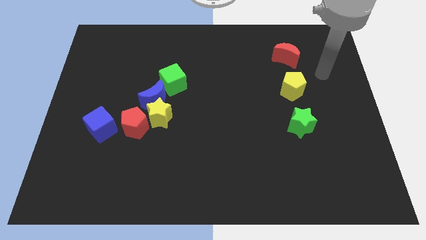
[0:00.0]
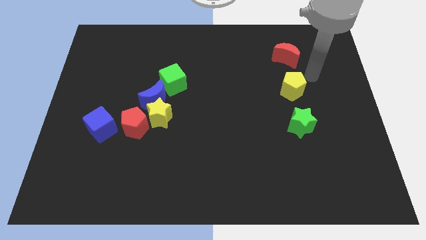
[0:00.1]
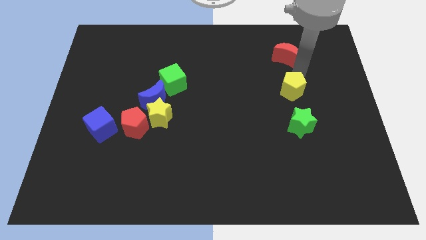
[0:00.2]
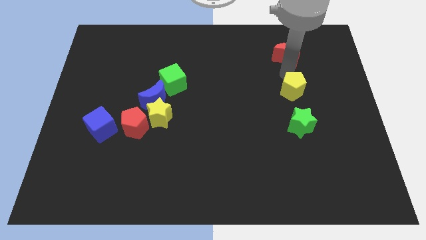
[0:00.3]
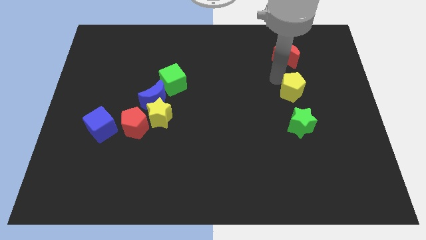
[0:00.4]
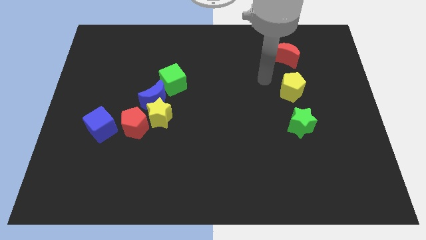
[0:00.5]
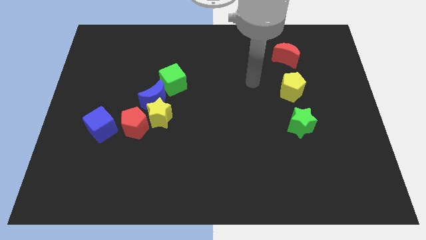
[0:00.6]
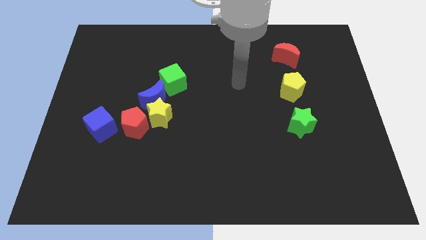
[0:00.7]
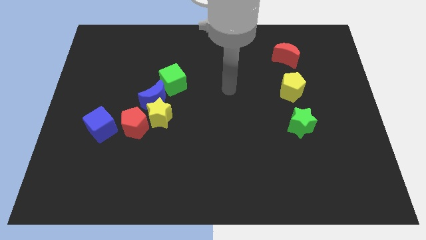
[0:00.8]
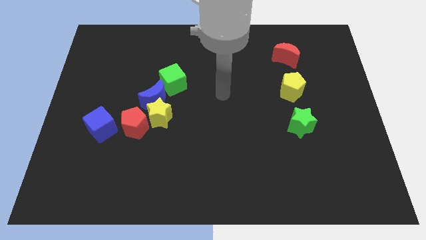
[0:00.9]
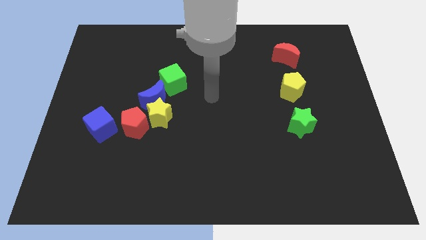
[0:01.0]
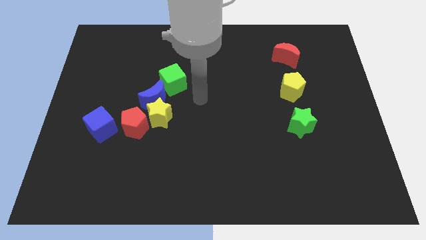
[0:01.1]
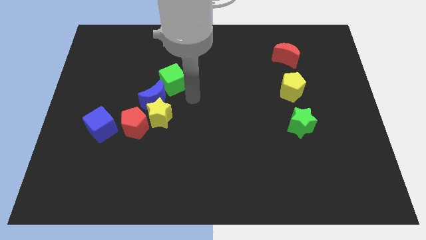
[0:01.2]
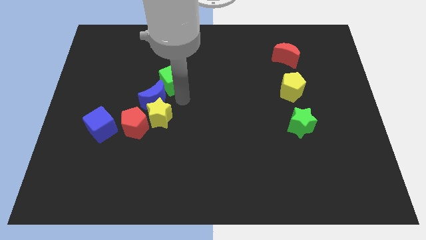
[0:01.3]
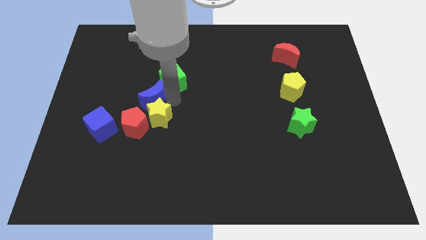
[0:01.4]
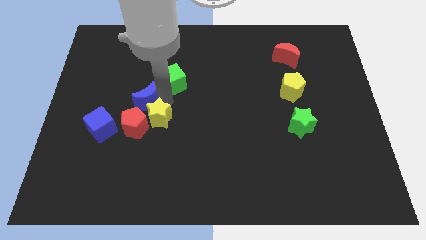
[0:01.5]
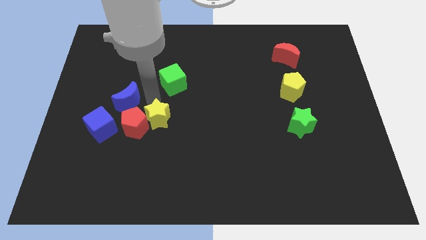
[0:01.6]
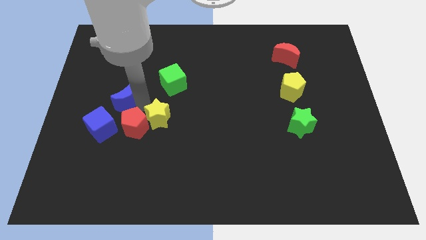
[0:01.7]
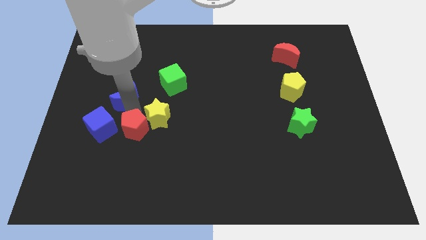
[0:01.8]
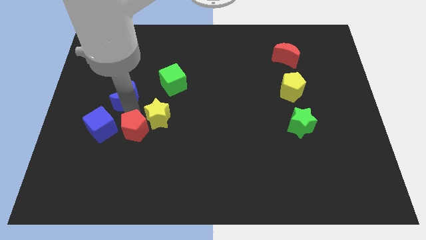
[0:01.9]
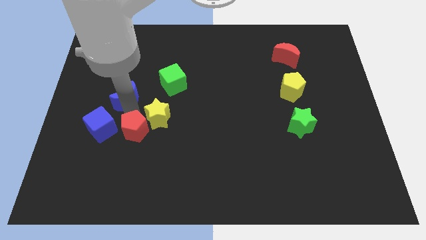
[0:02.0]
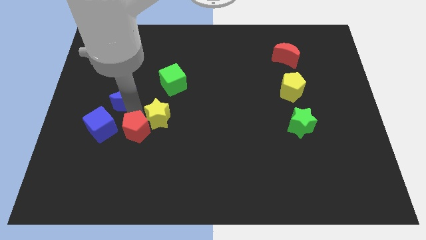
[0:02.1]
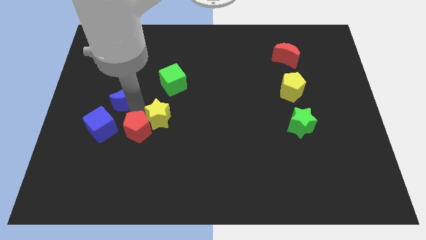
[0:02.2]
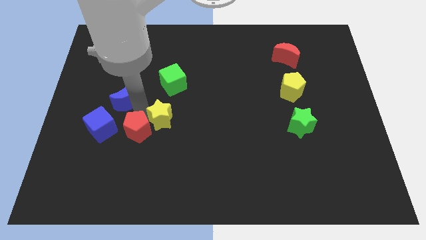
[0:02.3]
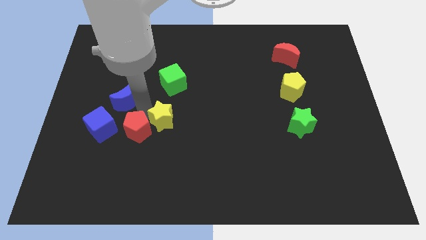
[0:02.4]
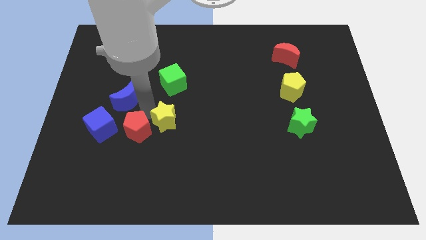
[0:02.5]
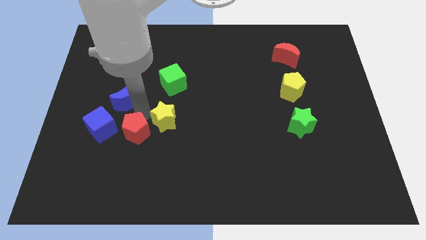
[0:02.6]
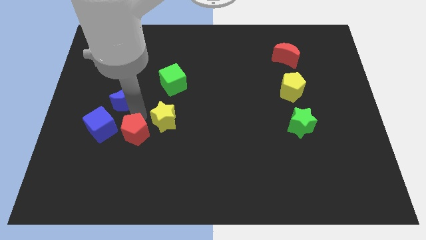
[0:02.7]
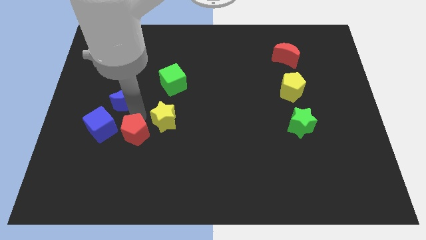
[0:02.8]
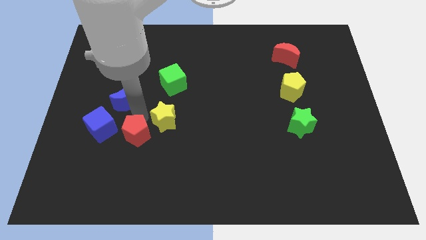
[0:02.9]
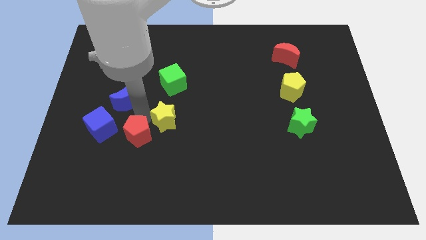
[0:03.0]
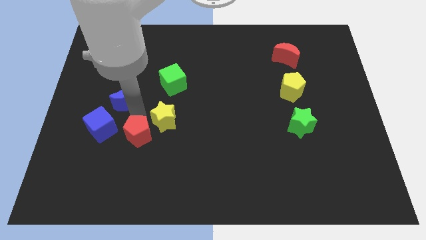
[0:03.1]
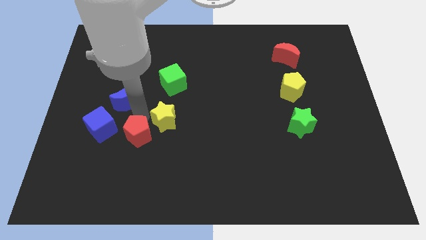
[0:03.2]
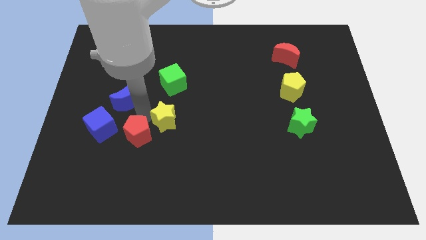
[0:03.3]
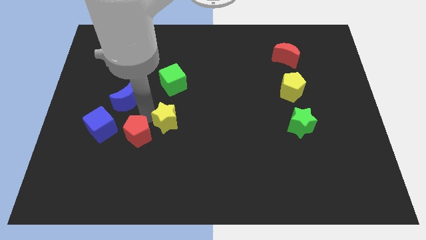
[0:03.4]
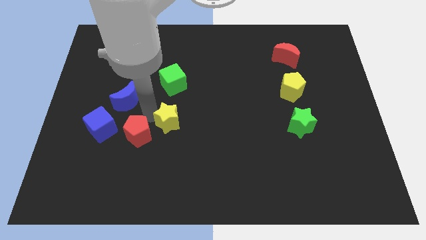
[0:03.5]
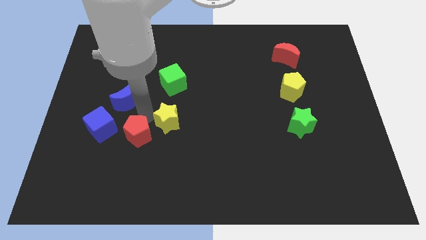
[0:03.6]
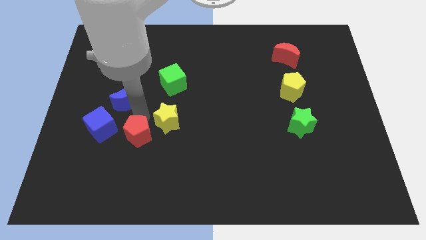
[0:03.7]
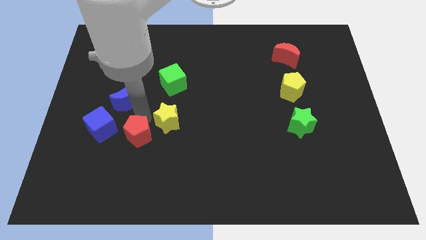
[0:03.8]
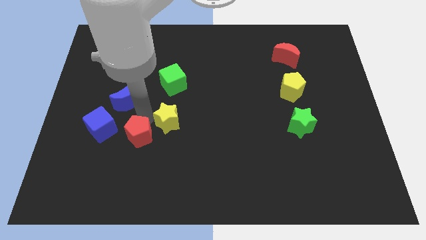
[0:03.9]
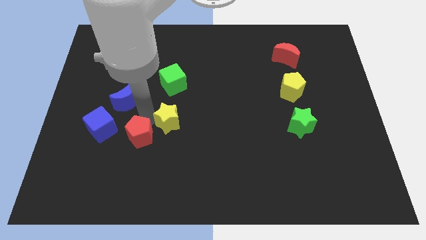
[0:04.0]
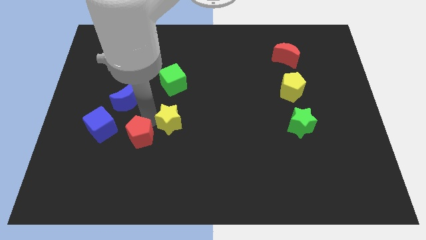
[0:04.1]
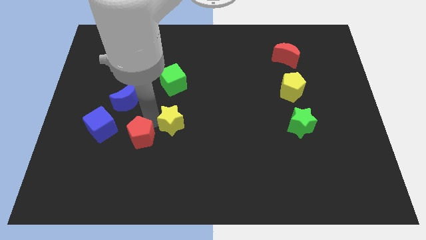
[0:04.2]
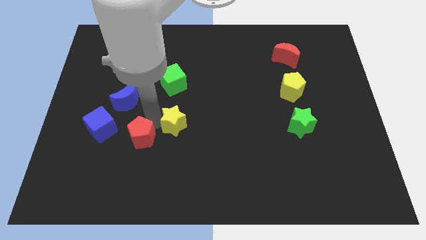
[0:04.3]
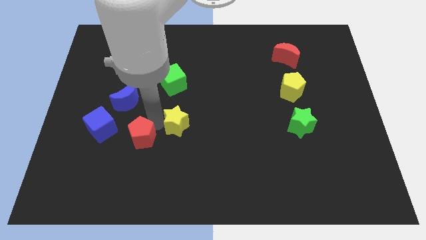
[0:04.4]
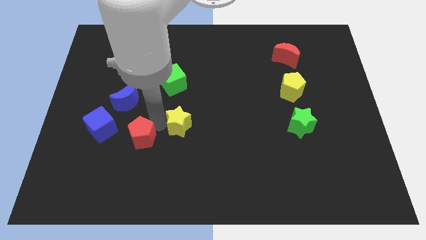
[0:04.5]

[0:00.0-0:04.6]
move the yellow star away from the blue moon and red pentagon

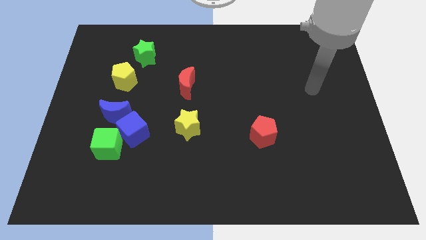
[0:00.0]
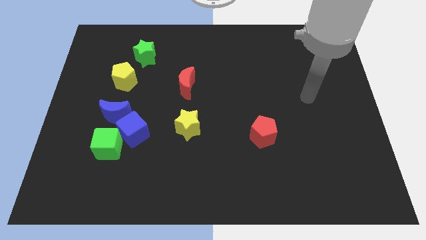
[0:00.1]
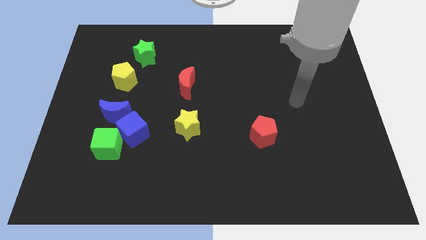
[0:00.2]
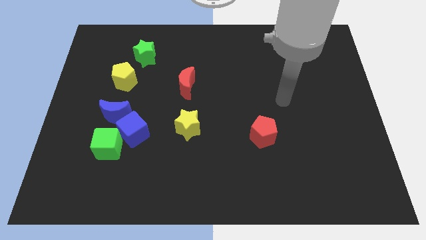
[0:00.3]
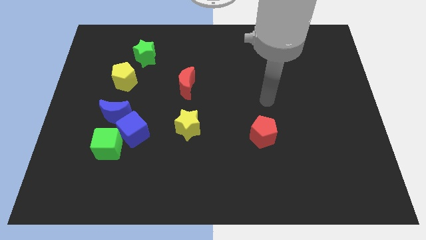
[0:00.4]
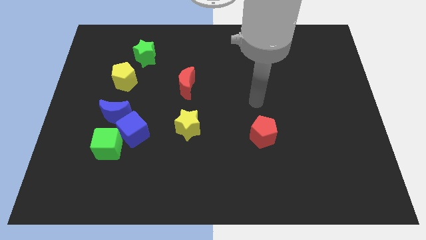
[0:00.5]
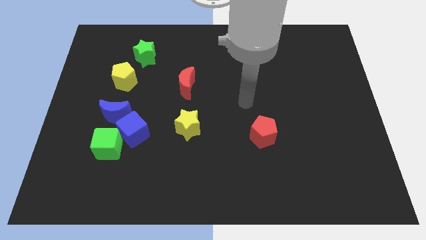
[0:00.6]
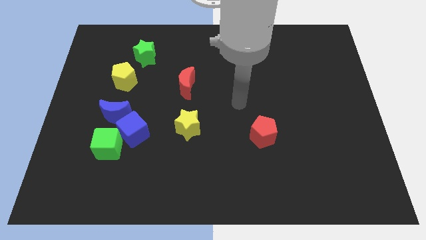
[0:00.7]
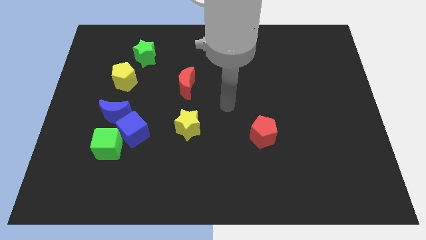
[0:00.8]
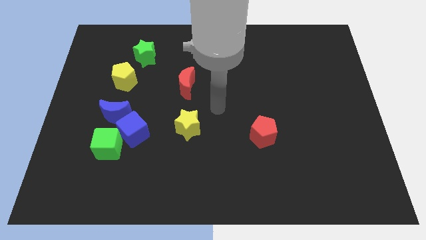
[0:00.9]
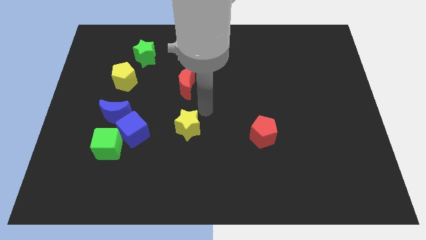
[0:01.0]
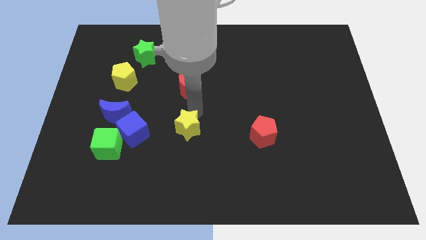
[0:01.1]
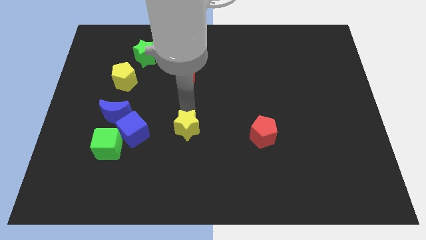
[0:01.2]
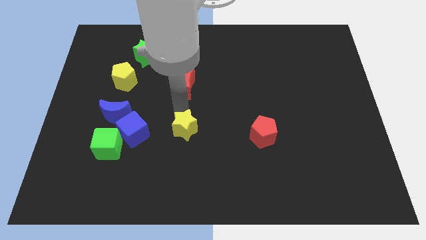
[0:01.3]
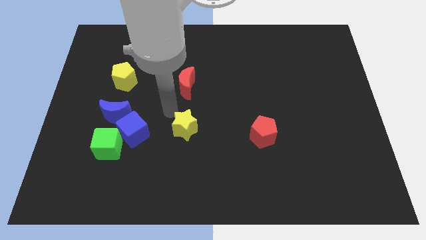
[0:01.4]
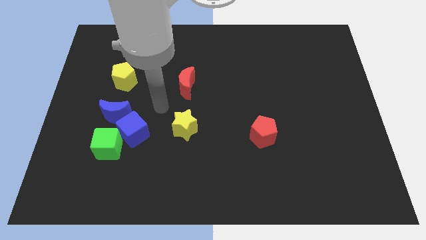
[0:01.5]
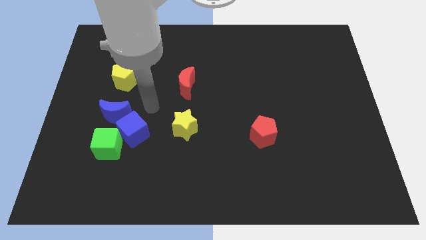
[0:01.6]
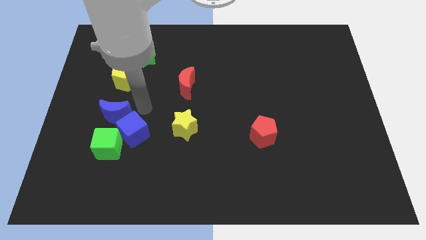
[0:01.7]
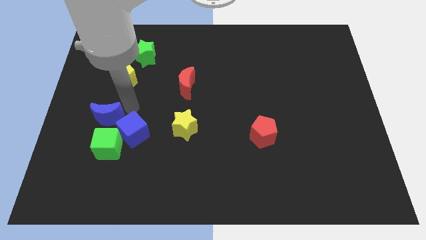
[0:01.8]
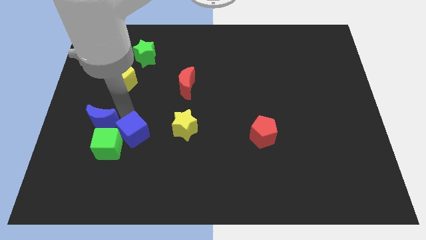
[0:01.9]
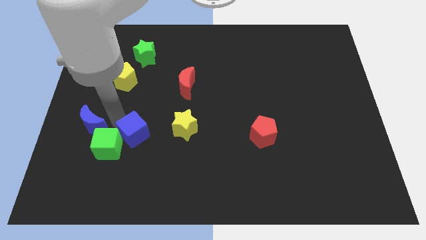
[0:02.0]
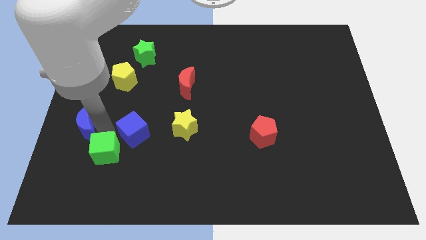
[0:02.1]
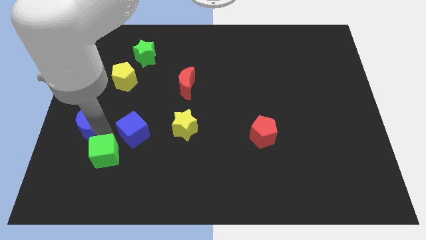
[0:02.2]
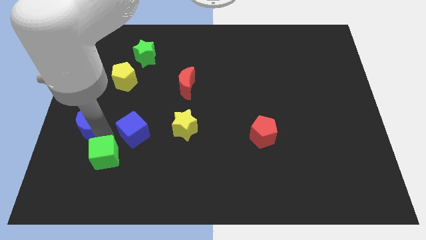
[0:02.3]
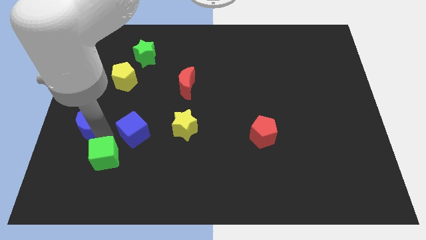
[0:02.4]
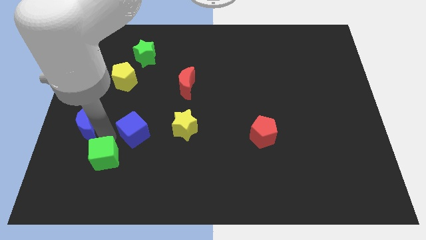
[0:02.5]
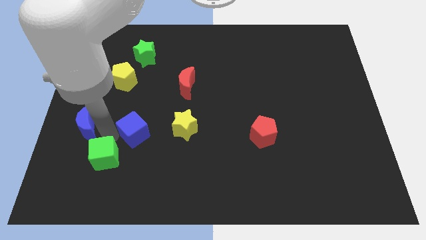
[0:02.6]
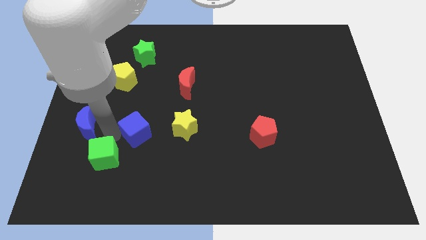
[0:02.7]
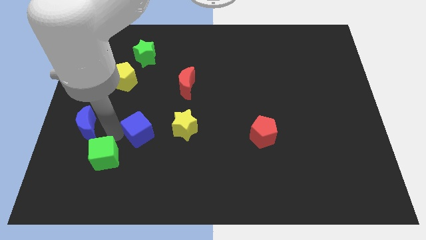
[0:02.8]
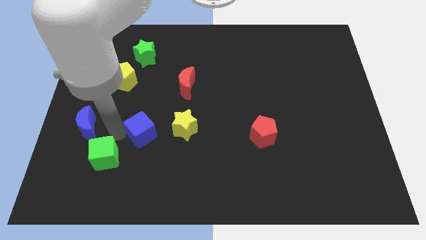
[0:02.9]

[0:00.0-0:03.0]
separate the blue cube from the green cube and blue moon

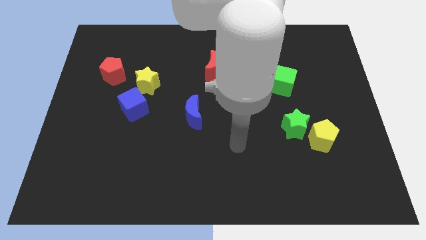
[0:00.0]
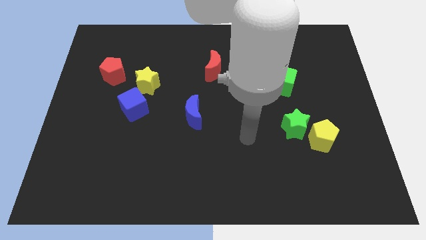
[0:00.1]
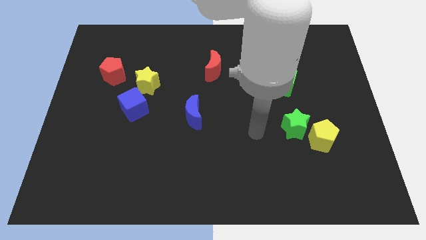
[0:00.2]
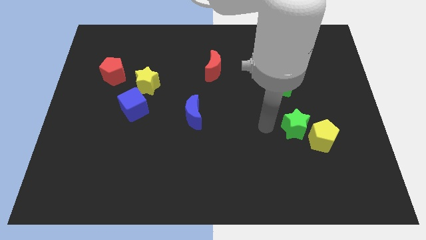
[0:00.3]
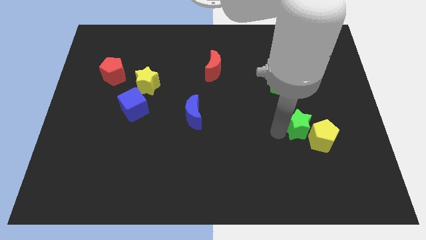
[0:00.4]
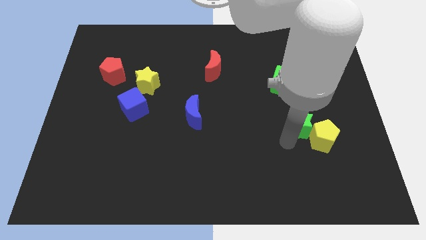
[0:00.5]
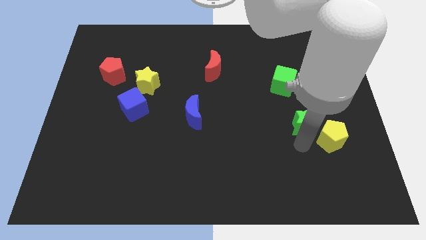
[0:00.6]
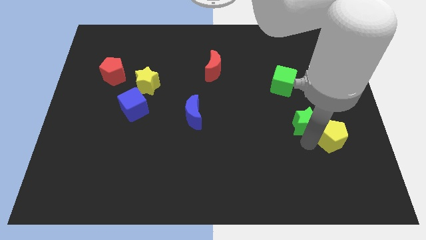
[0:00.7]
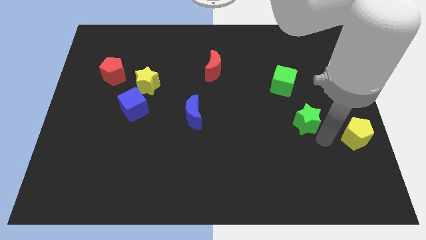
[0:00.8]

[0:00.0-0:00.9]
move the green star away from the yellow pentagon

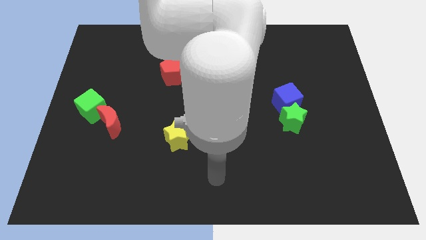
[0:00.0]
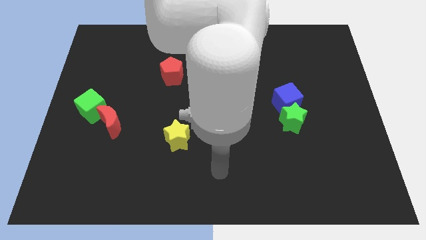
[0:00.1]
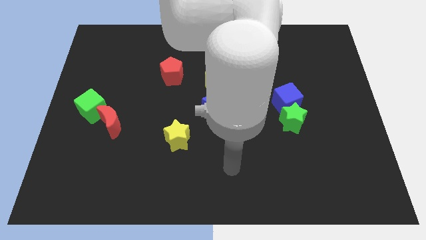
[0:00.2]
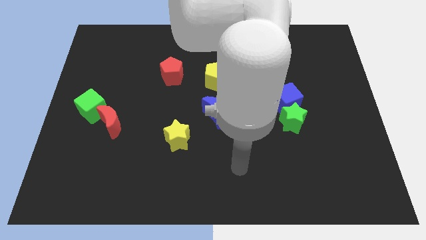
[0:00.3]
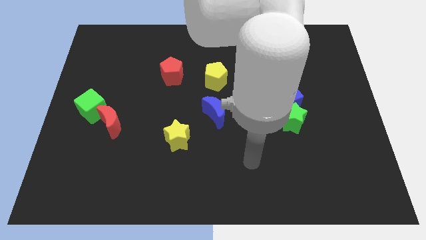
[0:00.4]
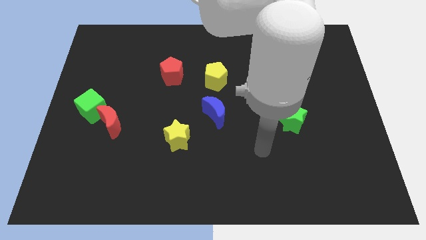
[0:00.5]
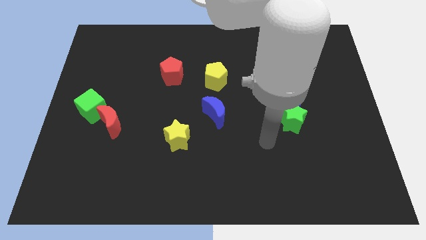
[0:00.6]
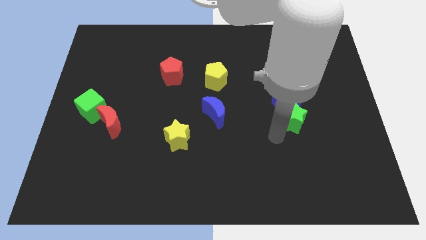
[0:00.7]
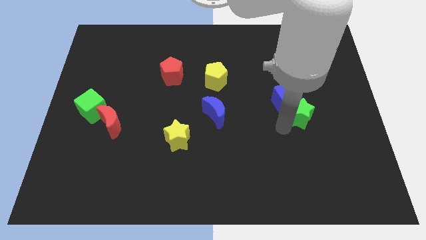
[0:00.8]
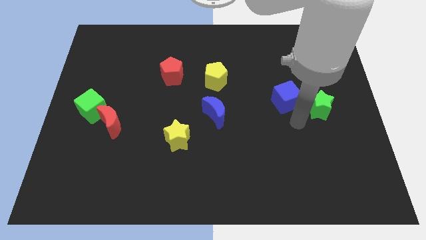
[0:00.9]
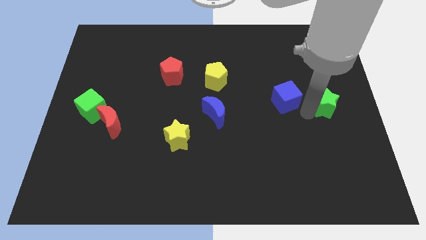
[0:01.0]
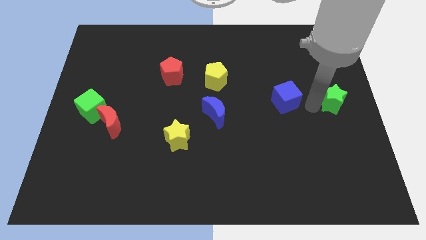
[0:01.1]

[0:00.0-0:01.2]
pull the blue cube apart from the green star
